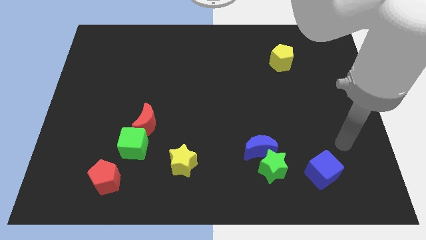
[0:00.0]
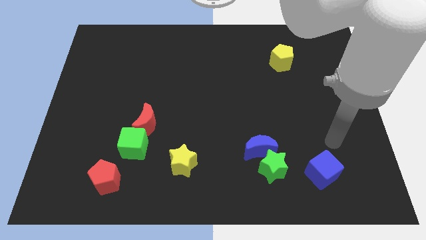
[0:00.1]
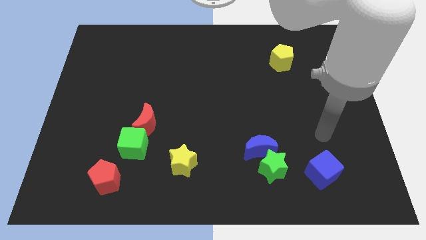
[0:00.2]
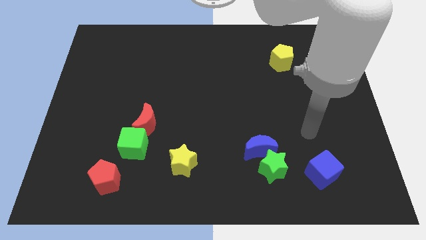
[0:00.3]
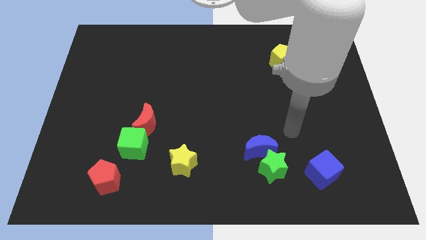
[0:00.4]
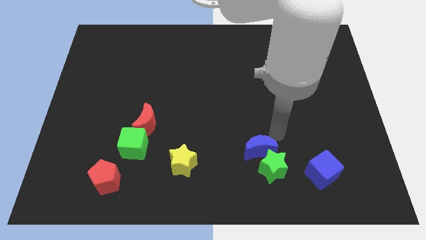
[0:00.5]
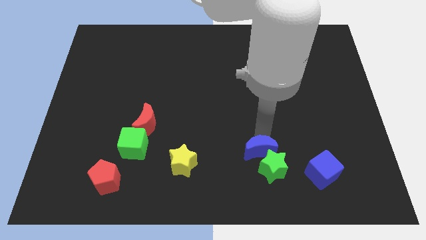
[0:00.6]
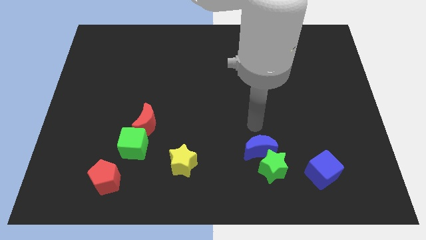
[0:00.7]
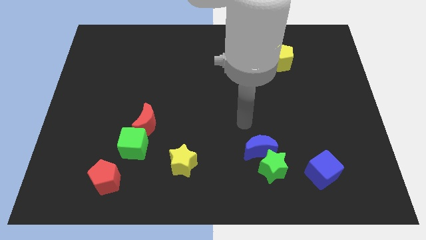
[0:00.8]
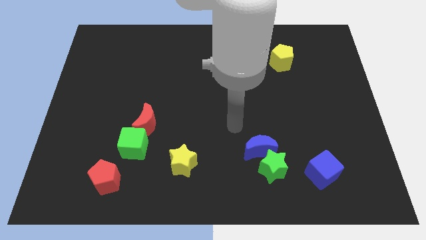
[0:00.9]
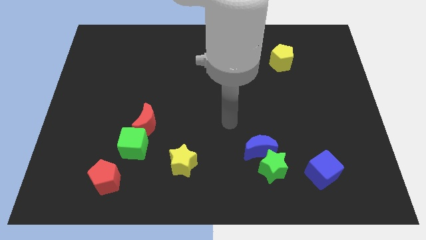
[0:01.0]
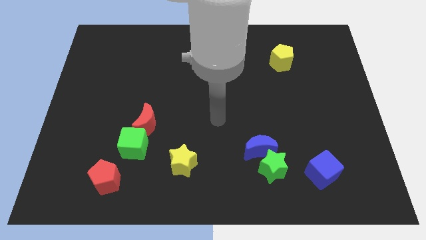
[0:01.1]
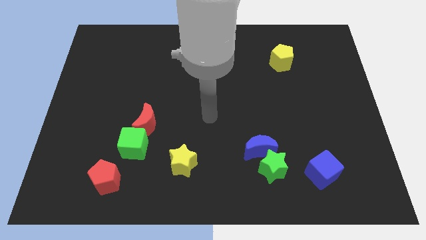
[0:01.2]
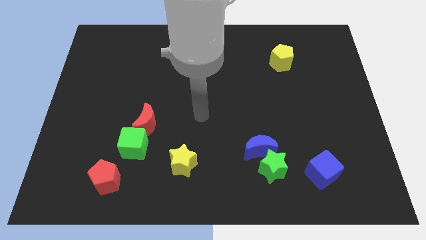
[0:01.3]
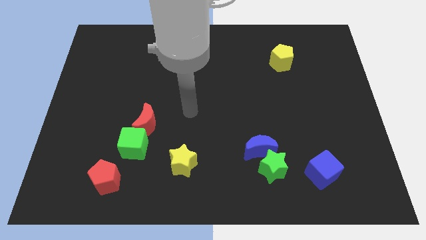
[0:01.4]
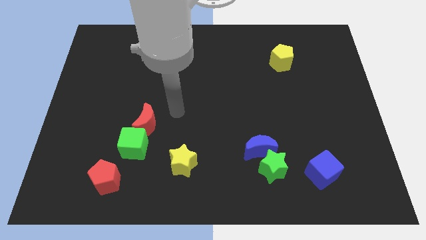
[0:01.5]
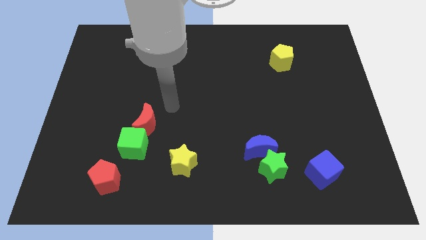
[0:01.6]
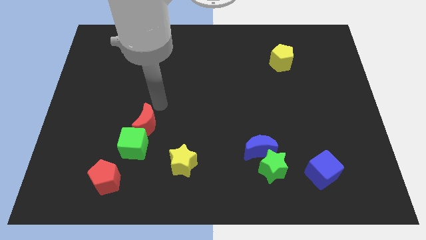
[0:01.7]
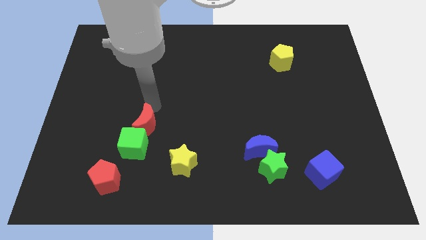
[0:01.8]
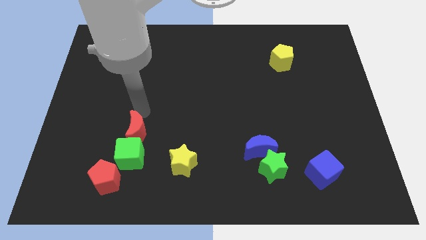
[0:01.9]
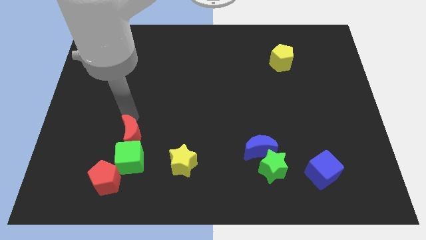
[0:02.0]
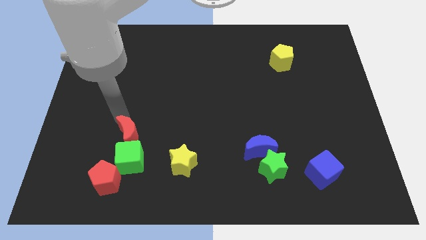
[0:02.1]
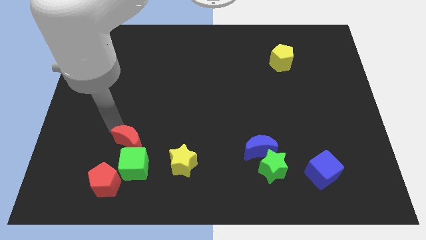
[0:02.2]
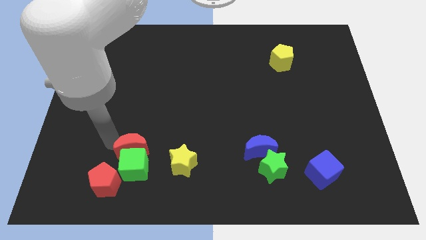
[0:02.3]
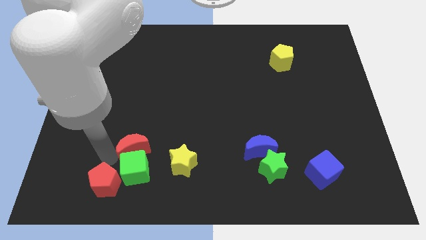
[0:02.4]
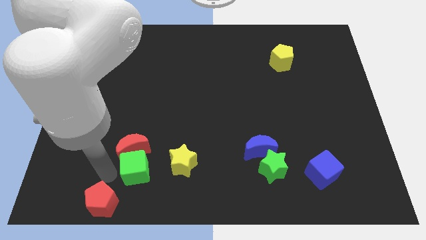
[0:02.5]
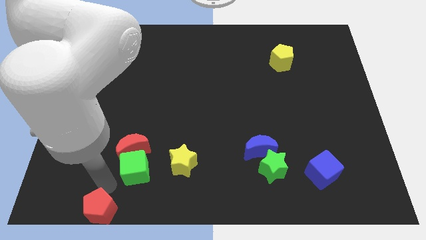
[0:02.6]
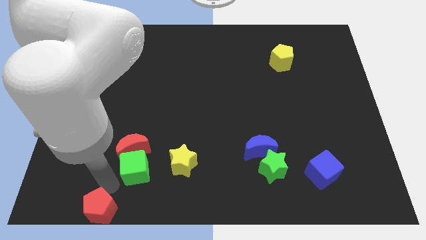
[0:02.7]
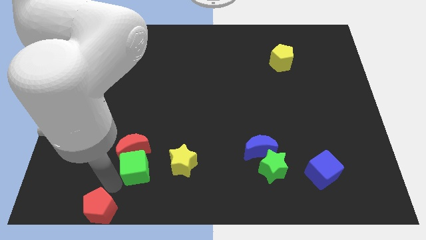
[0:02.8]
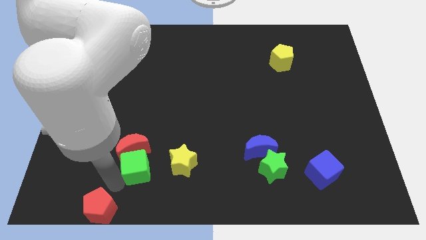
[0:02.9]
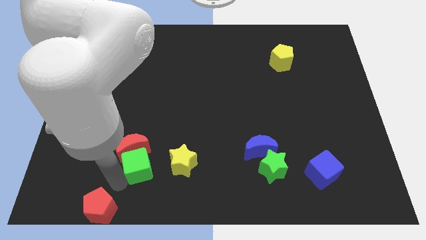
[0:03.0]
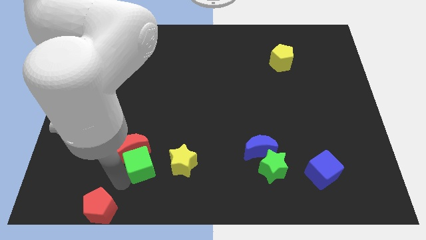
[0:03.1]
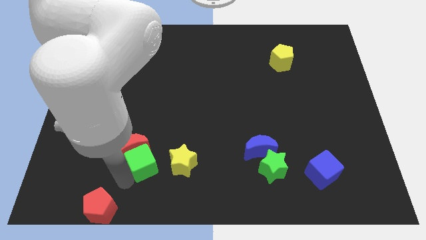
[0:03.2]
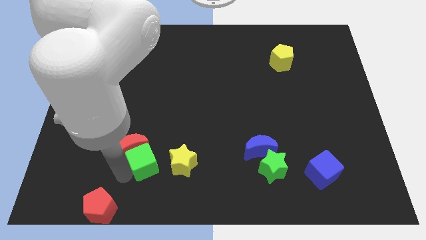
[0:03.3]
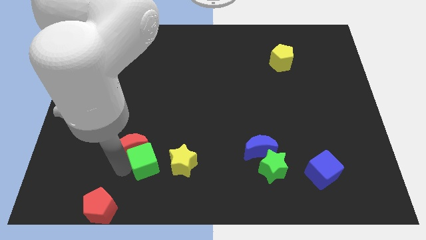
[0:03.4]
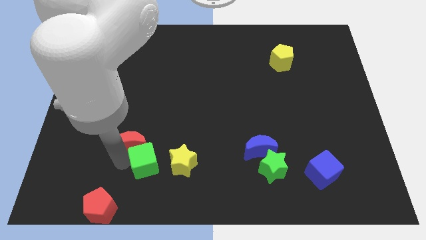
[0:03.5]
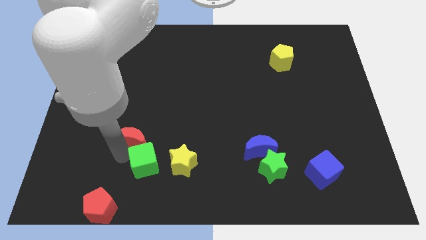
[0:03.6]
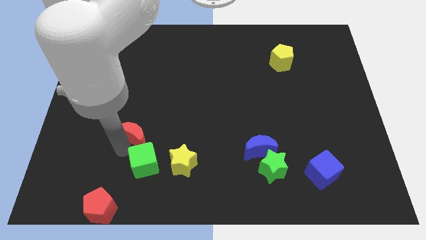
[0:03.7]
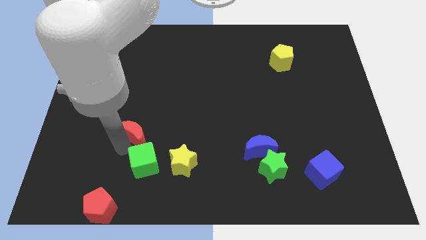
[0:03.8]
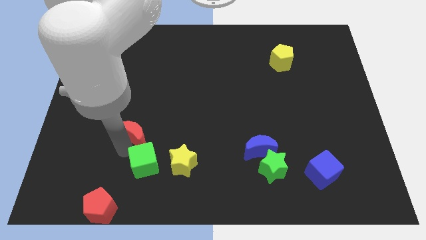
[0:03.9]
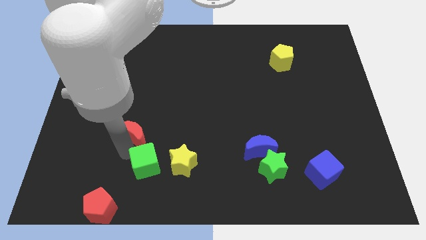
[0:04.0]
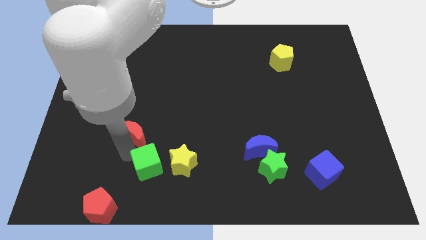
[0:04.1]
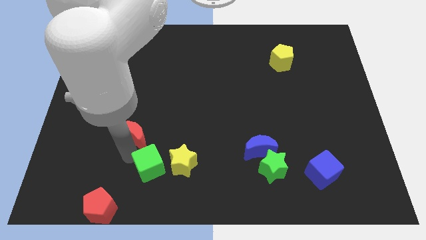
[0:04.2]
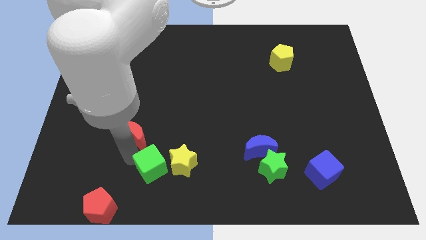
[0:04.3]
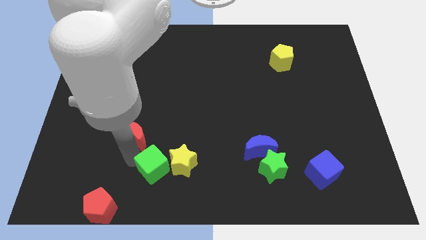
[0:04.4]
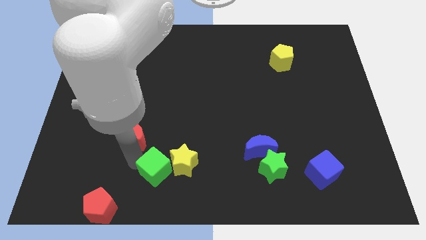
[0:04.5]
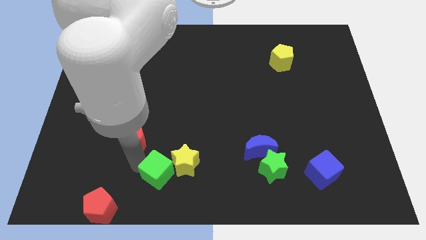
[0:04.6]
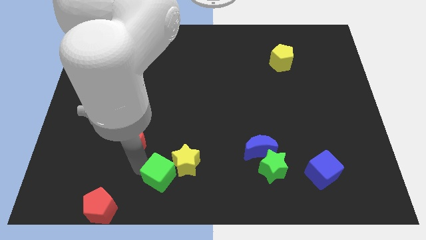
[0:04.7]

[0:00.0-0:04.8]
move the green cube to the bottom

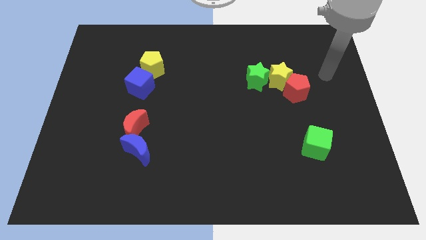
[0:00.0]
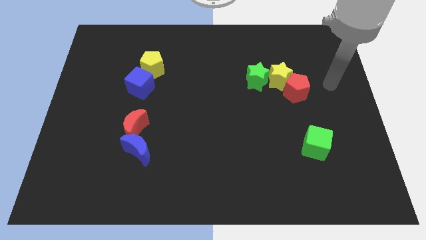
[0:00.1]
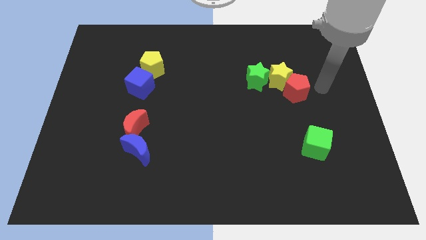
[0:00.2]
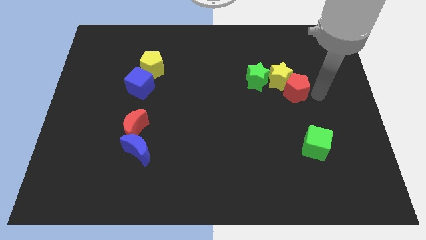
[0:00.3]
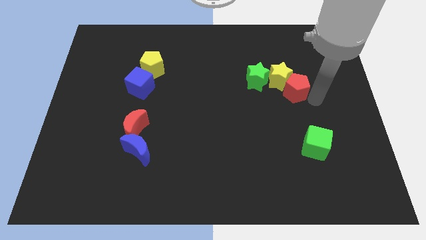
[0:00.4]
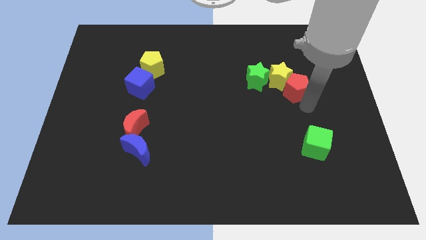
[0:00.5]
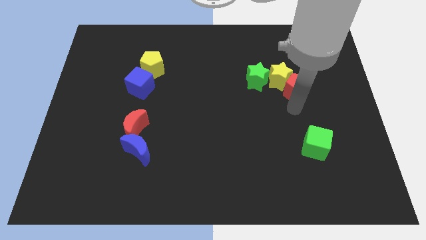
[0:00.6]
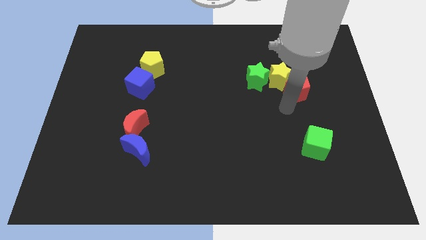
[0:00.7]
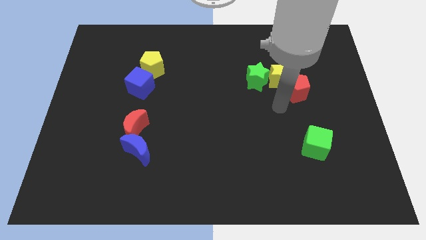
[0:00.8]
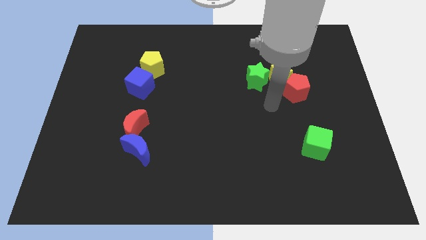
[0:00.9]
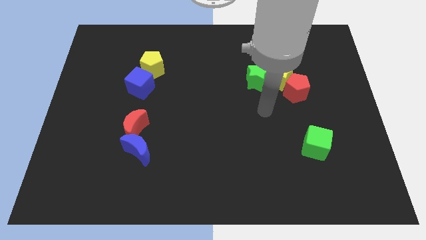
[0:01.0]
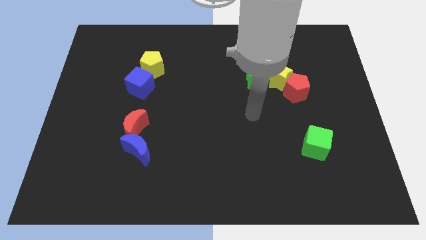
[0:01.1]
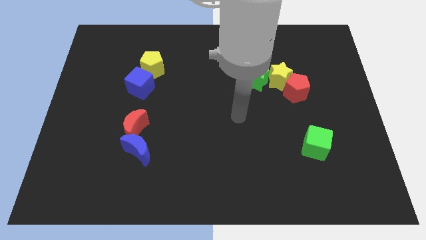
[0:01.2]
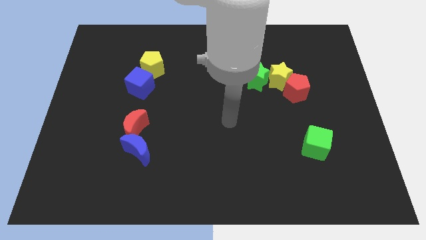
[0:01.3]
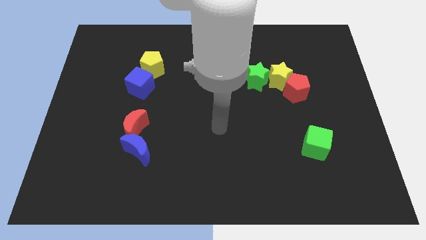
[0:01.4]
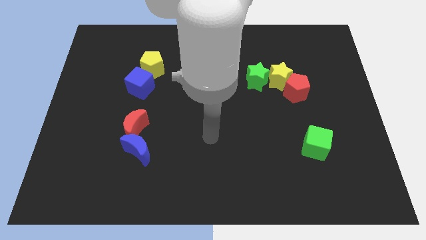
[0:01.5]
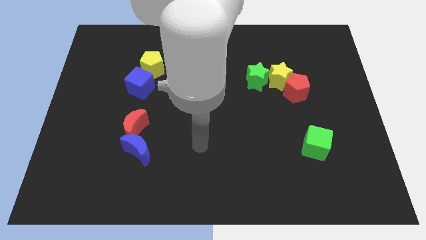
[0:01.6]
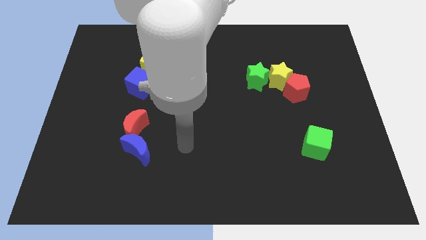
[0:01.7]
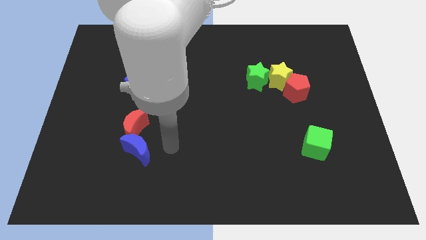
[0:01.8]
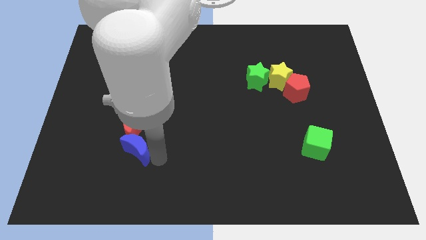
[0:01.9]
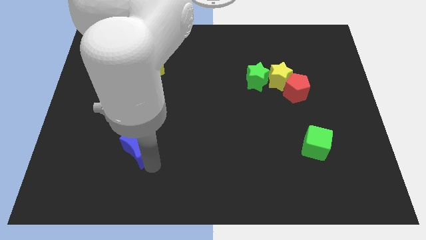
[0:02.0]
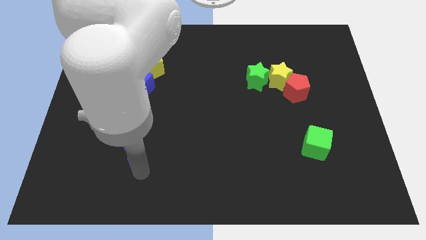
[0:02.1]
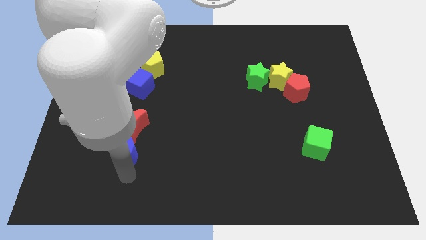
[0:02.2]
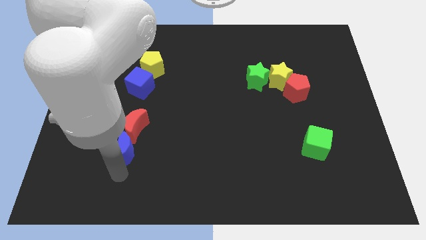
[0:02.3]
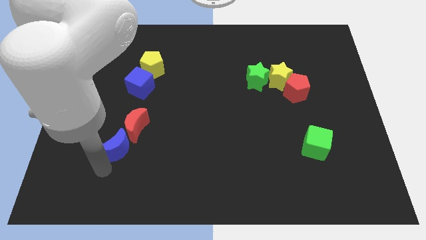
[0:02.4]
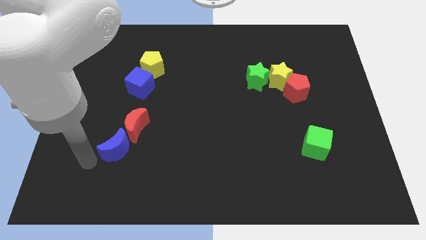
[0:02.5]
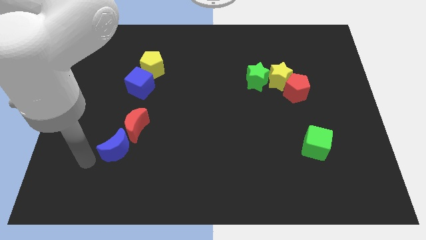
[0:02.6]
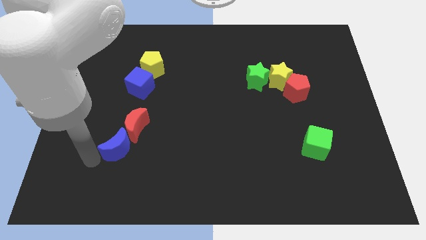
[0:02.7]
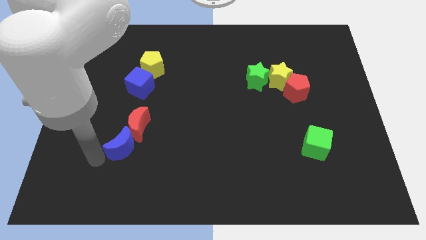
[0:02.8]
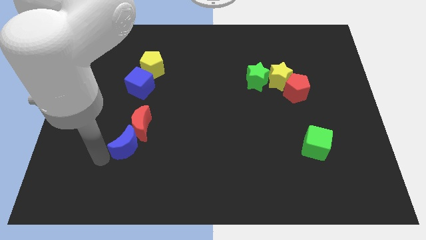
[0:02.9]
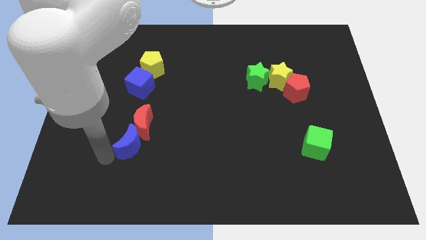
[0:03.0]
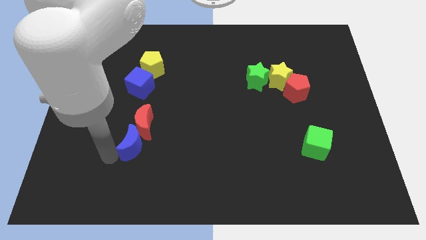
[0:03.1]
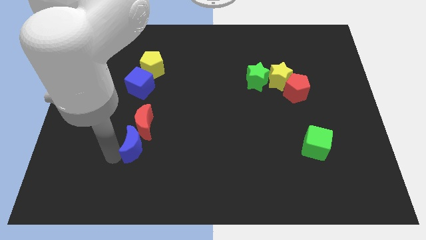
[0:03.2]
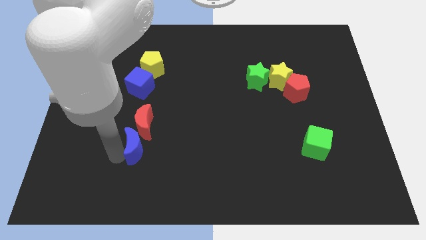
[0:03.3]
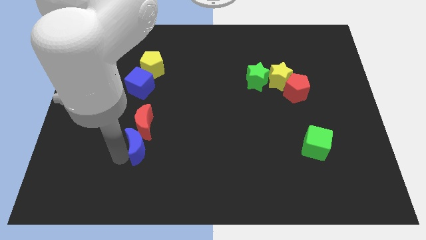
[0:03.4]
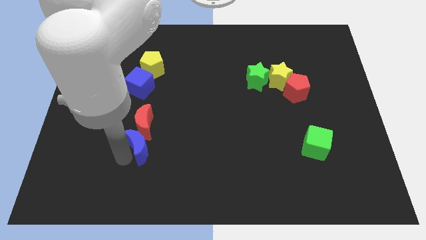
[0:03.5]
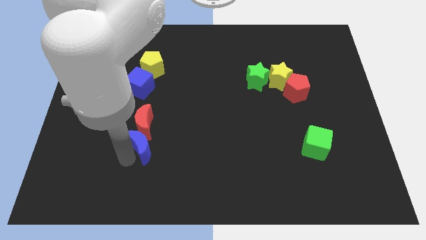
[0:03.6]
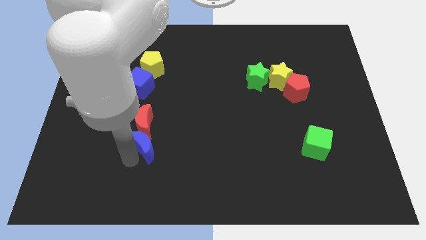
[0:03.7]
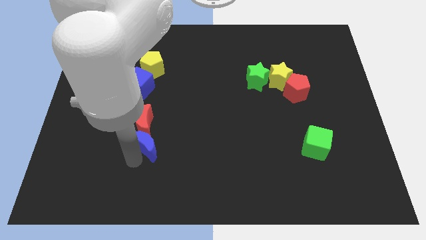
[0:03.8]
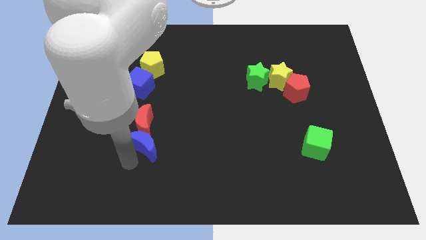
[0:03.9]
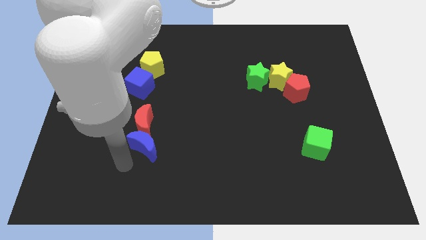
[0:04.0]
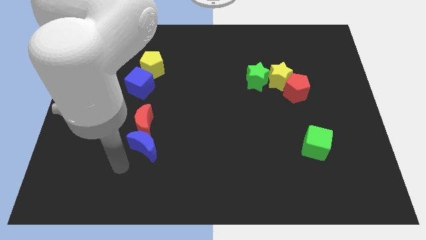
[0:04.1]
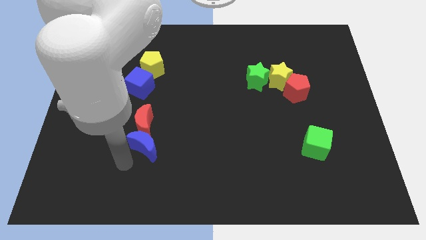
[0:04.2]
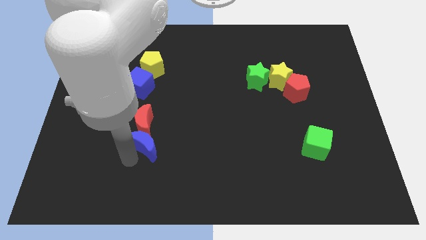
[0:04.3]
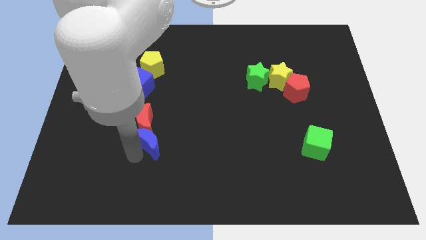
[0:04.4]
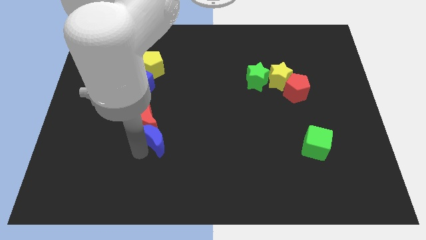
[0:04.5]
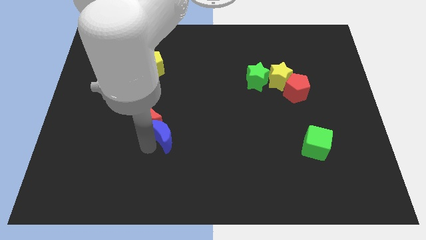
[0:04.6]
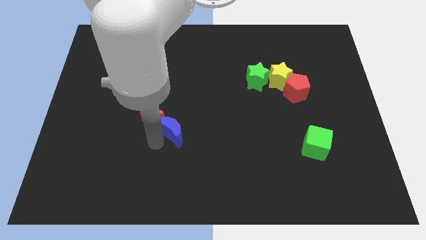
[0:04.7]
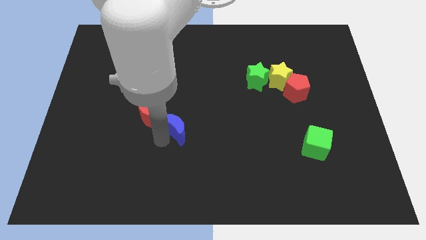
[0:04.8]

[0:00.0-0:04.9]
push the blue moon to the center
